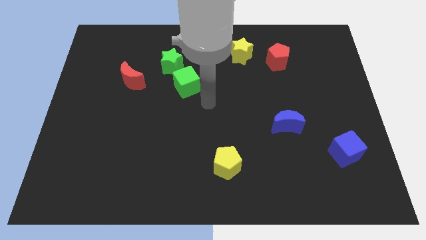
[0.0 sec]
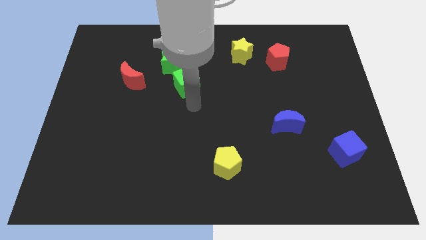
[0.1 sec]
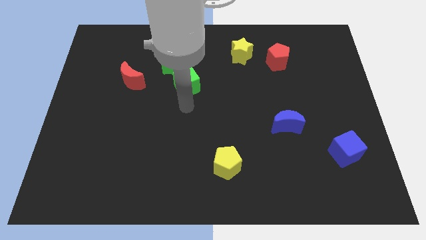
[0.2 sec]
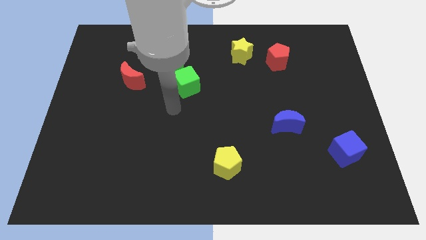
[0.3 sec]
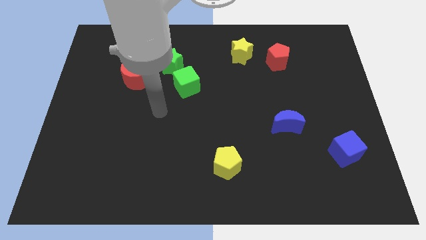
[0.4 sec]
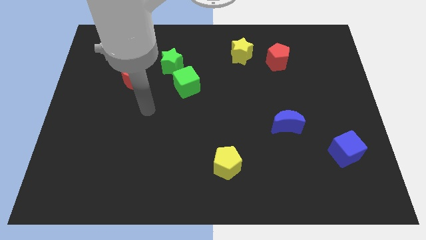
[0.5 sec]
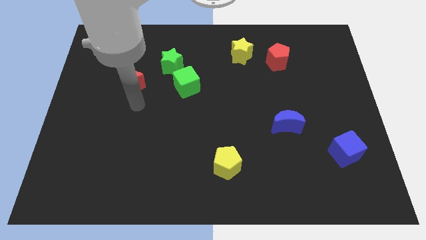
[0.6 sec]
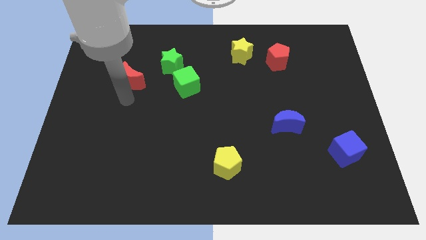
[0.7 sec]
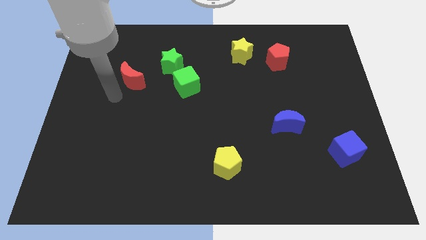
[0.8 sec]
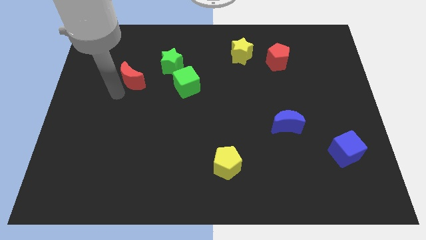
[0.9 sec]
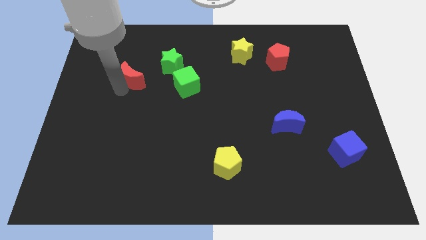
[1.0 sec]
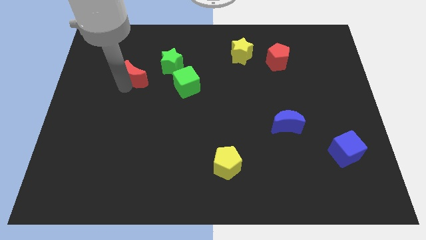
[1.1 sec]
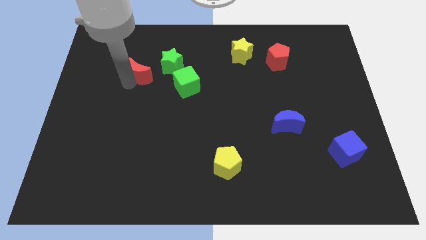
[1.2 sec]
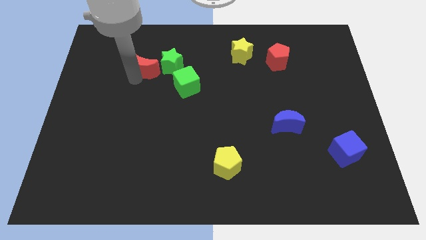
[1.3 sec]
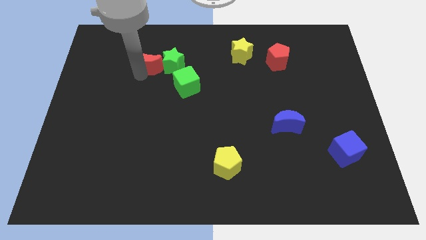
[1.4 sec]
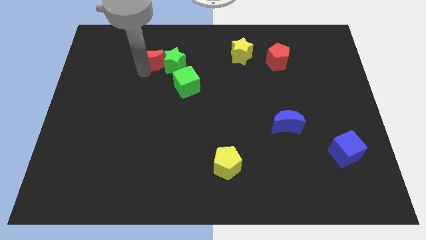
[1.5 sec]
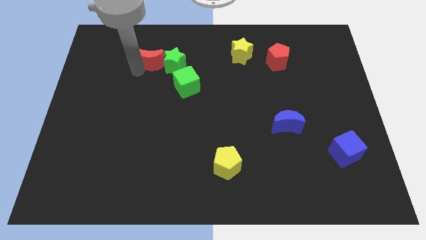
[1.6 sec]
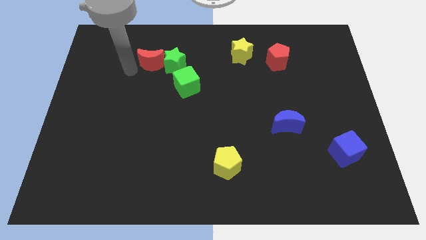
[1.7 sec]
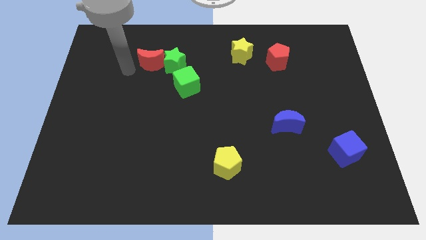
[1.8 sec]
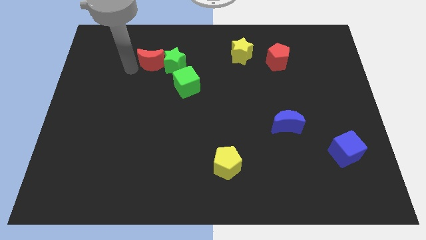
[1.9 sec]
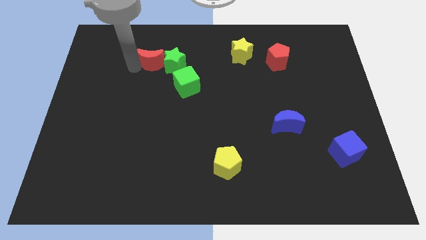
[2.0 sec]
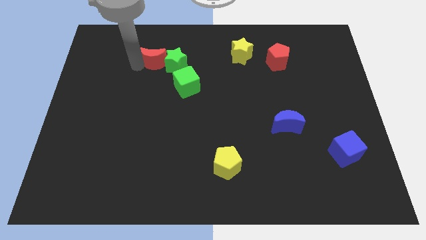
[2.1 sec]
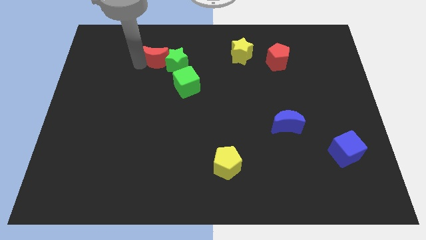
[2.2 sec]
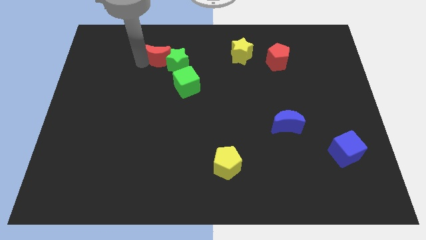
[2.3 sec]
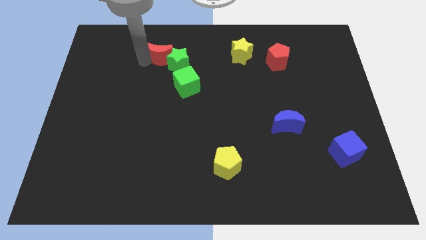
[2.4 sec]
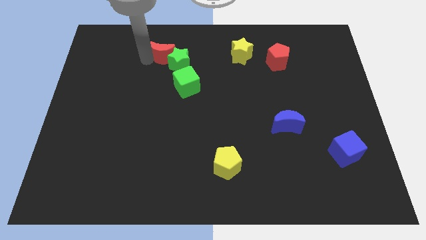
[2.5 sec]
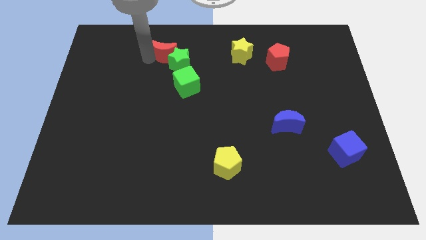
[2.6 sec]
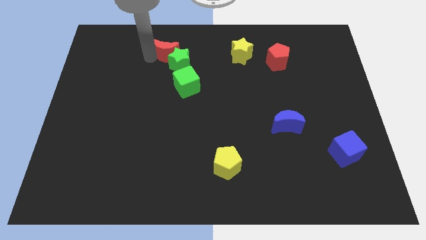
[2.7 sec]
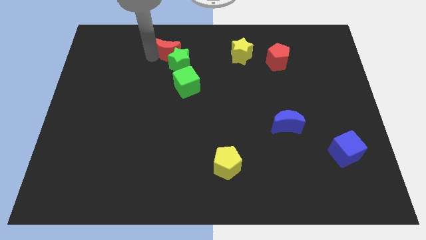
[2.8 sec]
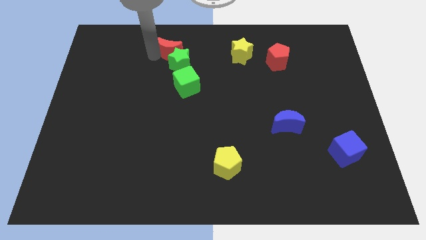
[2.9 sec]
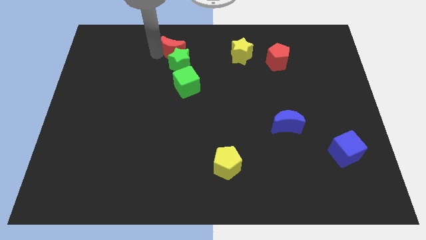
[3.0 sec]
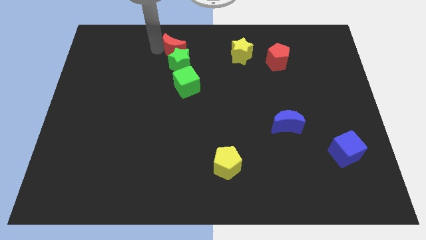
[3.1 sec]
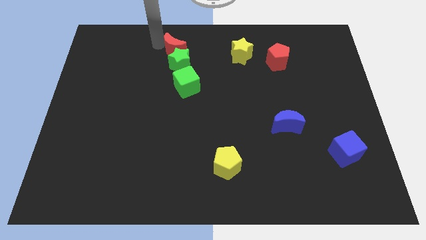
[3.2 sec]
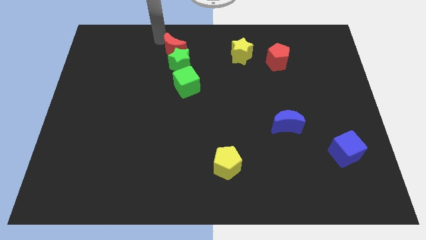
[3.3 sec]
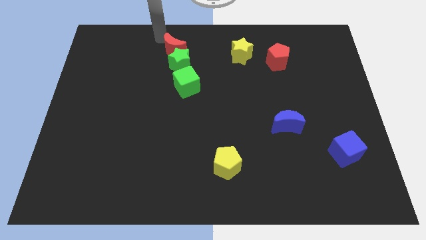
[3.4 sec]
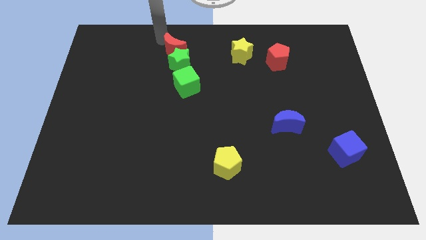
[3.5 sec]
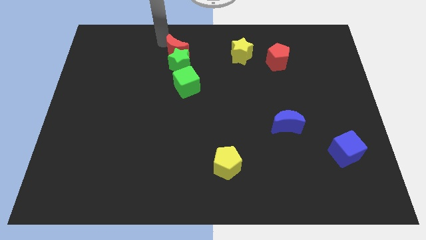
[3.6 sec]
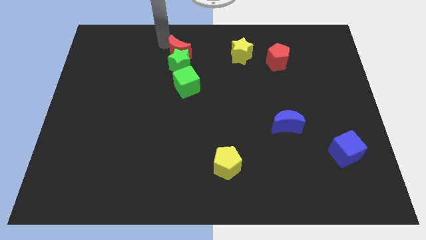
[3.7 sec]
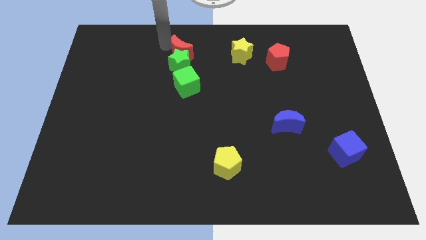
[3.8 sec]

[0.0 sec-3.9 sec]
slightly push the red moon right

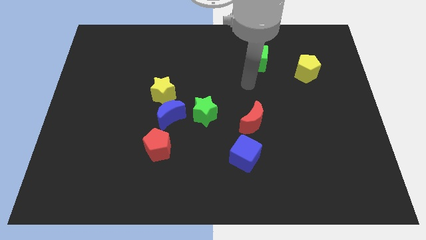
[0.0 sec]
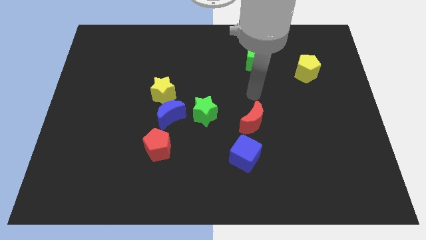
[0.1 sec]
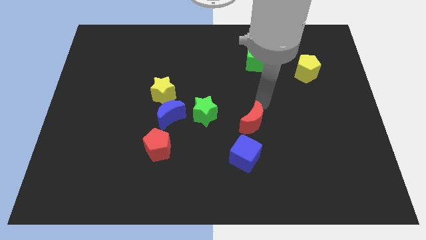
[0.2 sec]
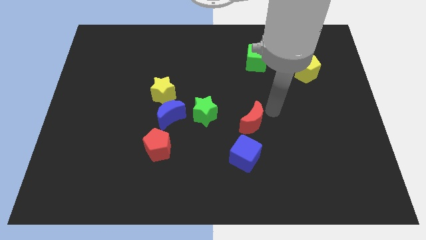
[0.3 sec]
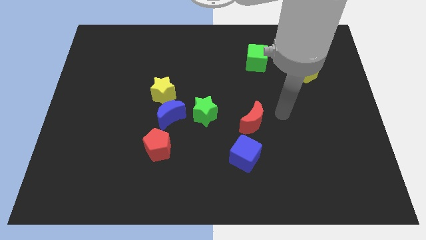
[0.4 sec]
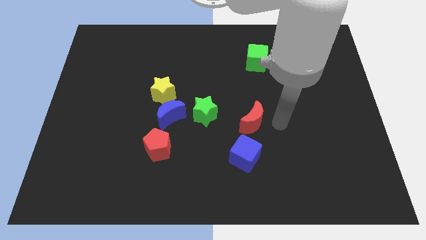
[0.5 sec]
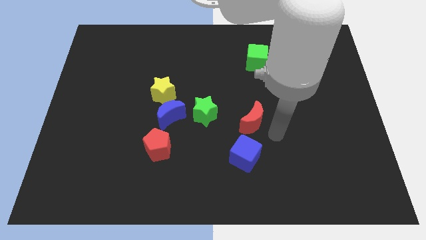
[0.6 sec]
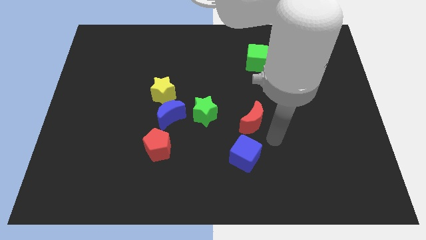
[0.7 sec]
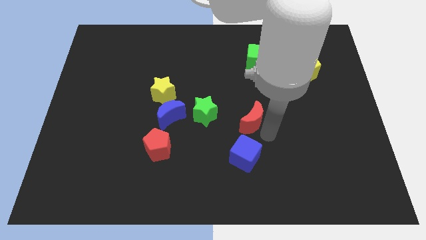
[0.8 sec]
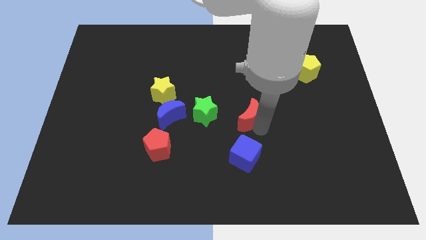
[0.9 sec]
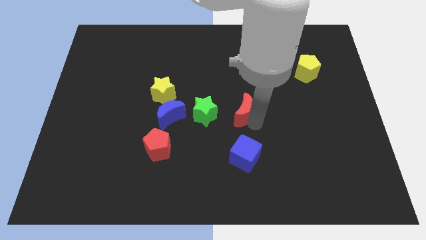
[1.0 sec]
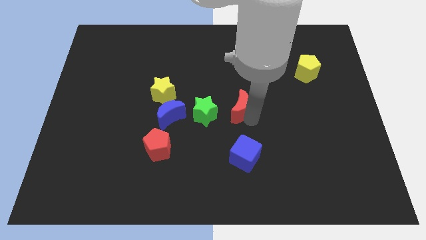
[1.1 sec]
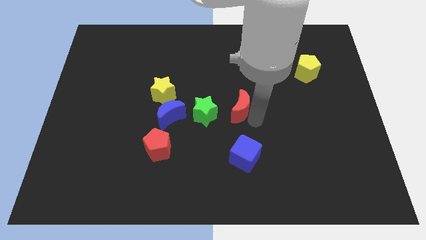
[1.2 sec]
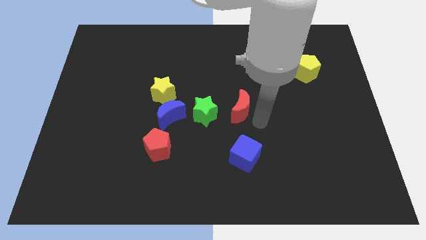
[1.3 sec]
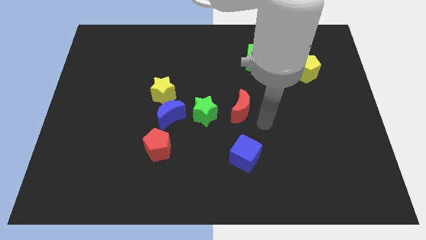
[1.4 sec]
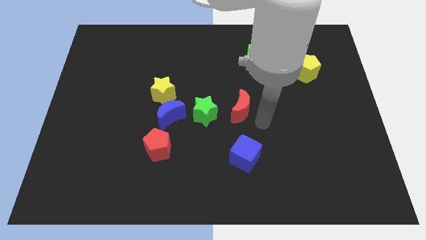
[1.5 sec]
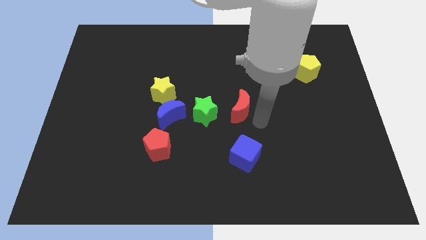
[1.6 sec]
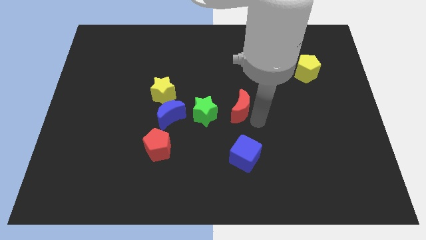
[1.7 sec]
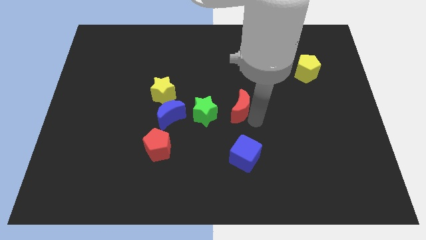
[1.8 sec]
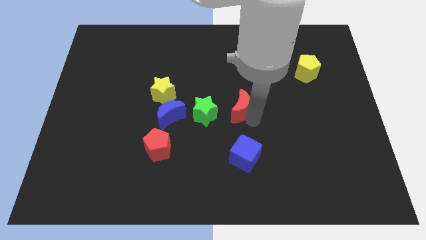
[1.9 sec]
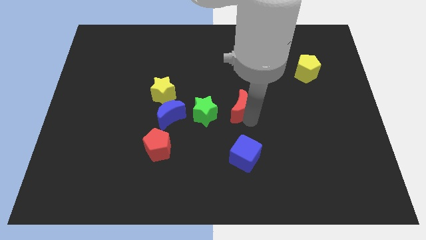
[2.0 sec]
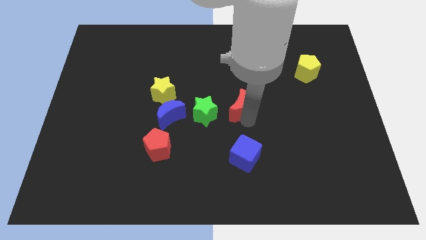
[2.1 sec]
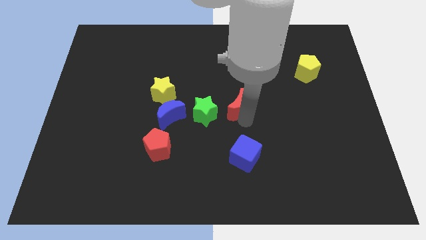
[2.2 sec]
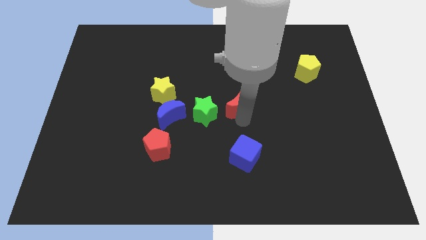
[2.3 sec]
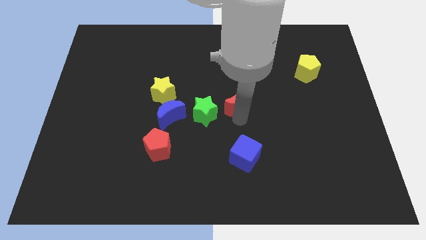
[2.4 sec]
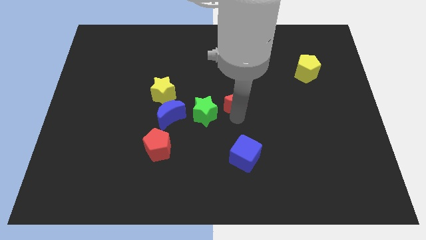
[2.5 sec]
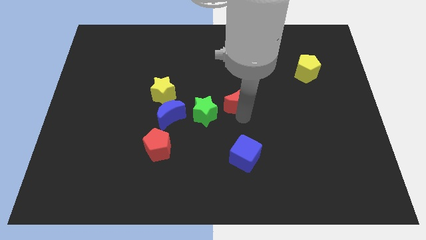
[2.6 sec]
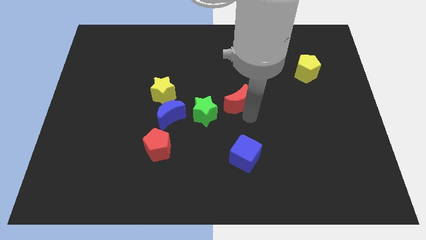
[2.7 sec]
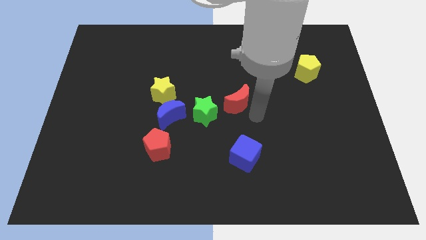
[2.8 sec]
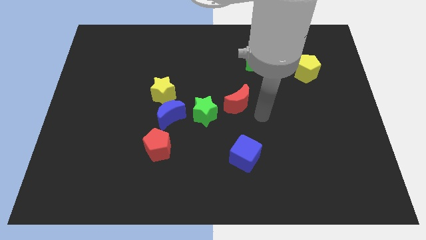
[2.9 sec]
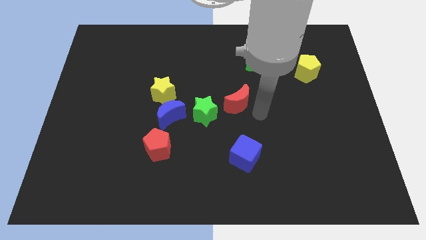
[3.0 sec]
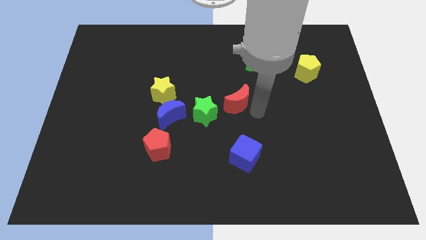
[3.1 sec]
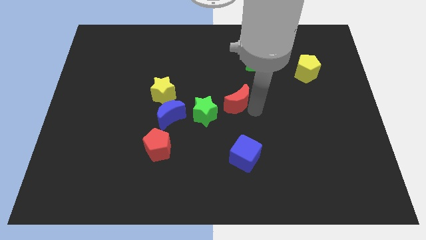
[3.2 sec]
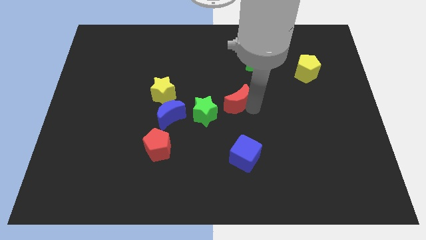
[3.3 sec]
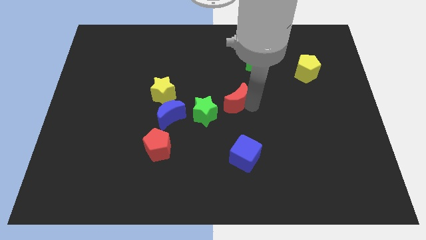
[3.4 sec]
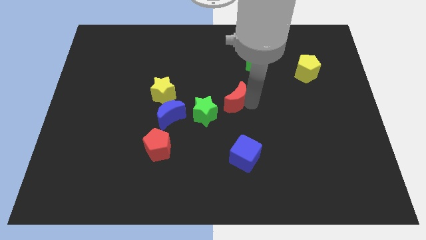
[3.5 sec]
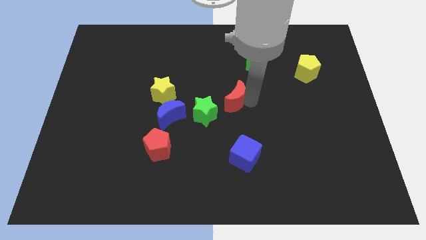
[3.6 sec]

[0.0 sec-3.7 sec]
move the red moon a little up and then left

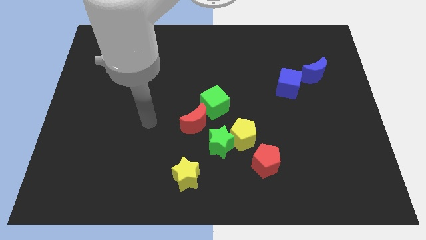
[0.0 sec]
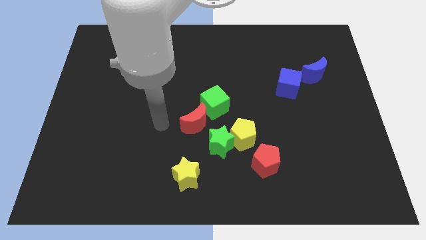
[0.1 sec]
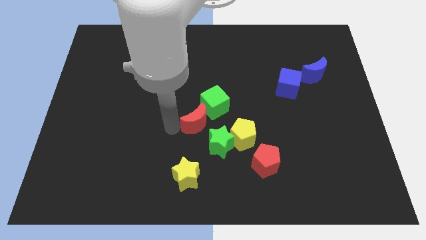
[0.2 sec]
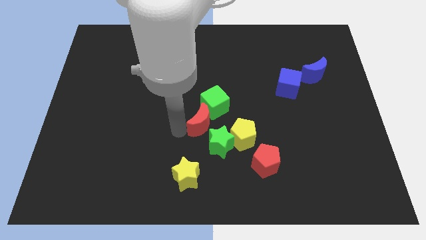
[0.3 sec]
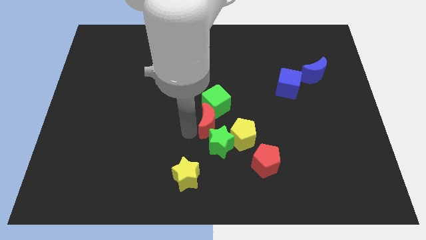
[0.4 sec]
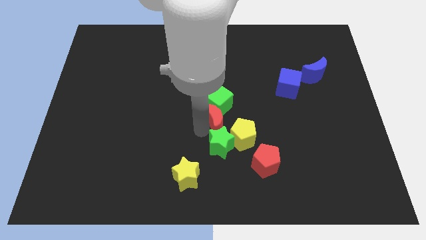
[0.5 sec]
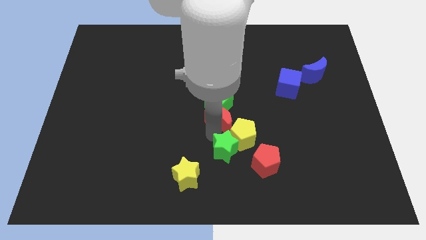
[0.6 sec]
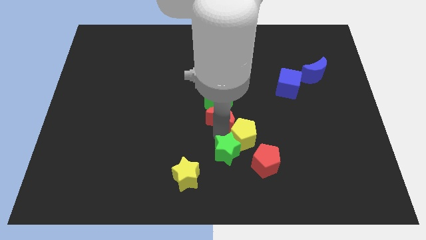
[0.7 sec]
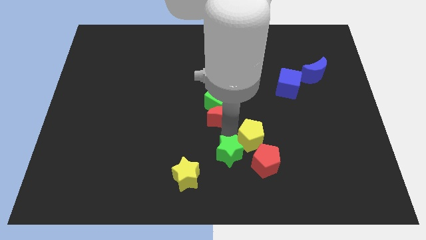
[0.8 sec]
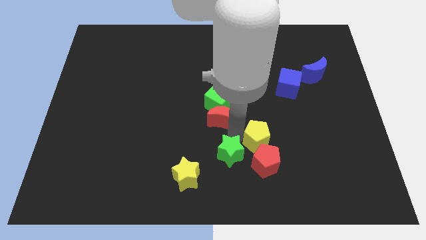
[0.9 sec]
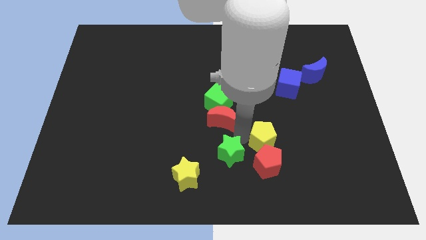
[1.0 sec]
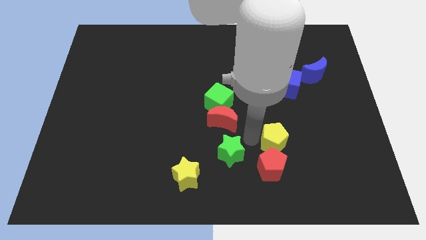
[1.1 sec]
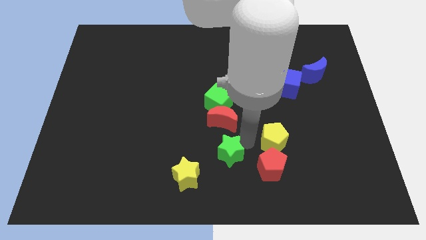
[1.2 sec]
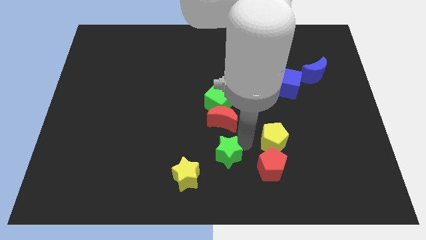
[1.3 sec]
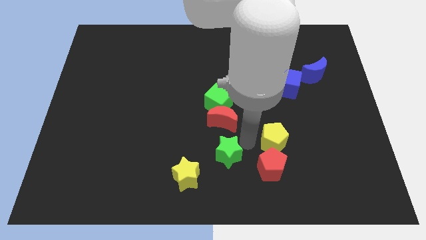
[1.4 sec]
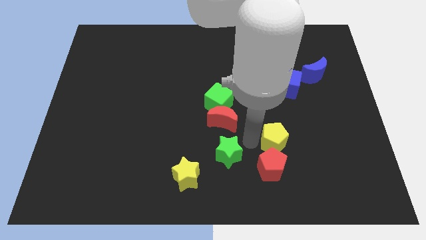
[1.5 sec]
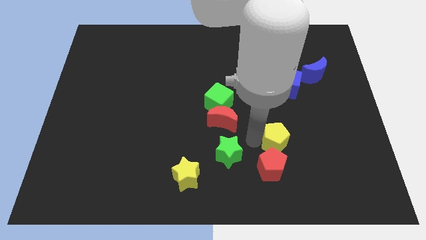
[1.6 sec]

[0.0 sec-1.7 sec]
slightly slide the yellow pentagon to the right
